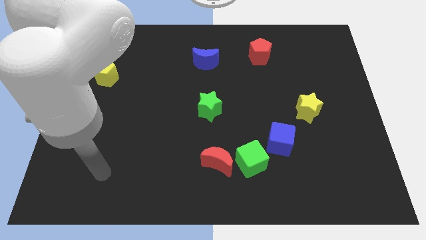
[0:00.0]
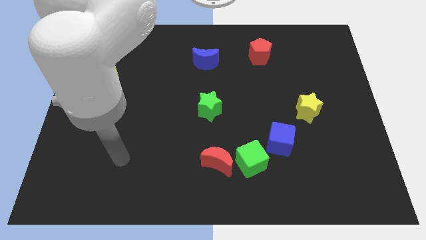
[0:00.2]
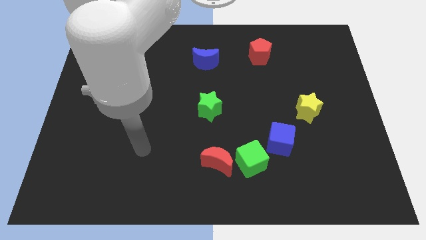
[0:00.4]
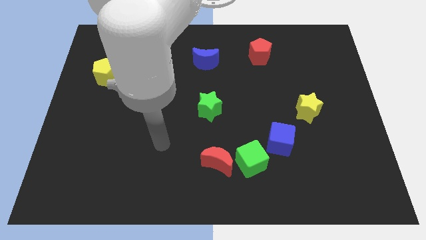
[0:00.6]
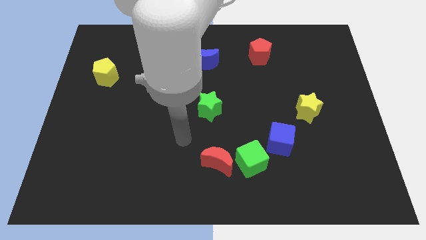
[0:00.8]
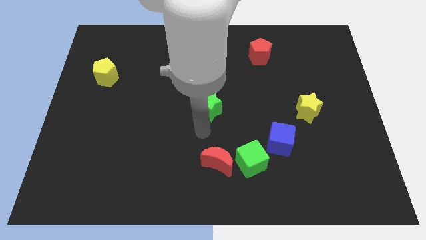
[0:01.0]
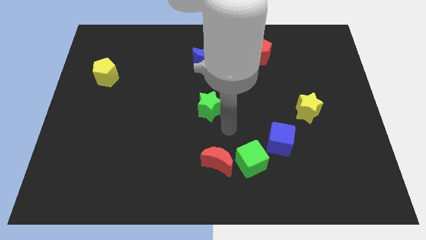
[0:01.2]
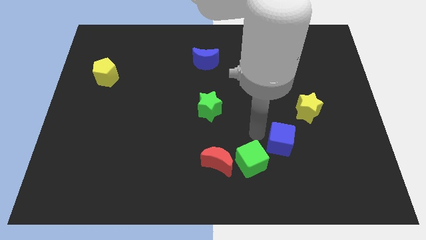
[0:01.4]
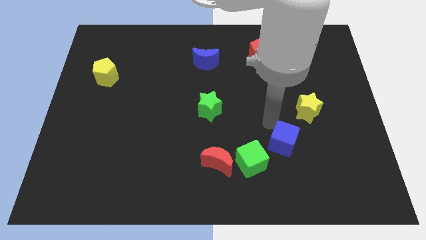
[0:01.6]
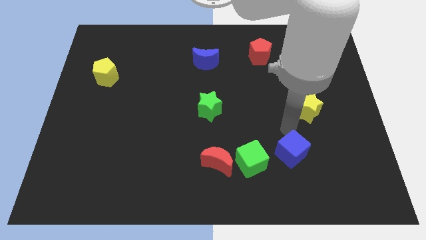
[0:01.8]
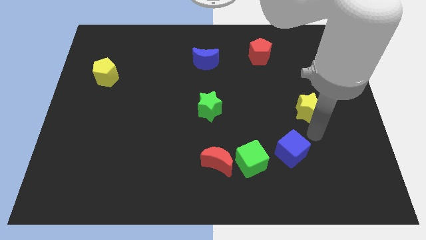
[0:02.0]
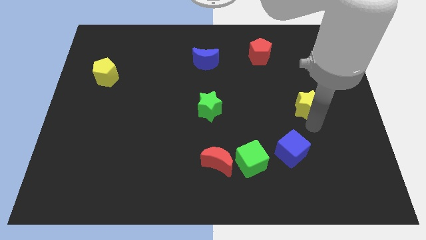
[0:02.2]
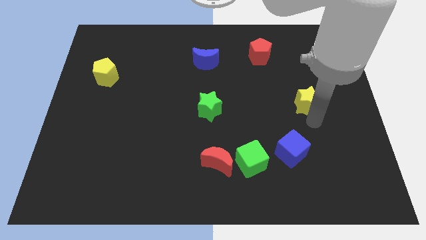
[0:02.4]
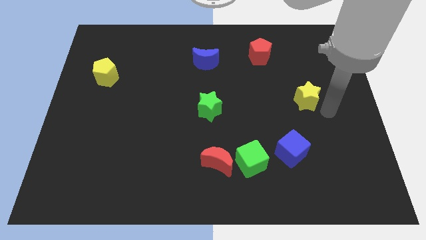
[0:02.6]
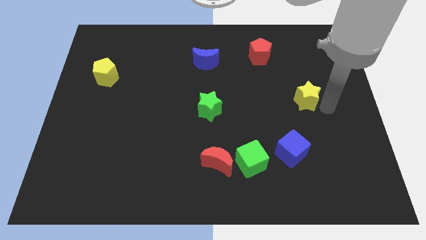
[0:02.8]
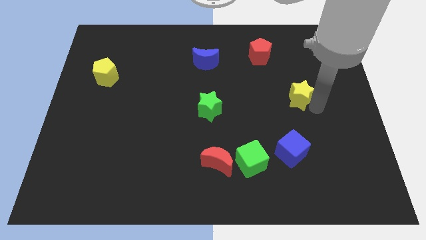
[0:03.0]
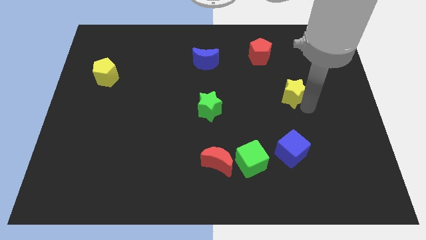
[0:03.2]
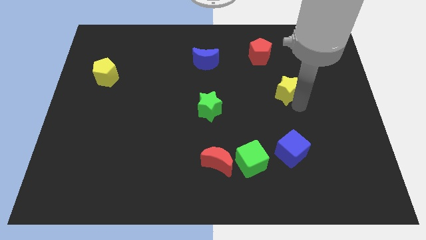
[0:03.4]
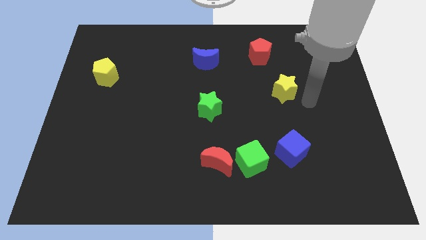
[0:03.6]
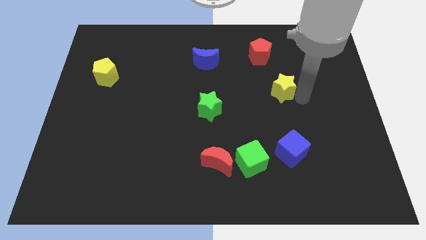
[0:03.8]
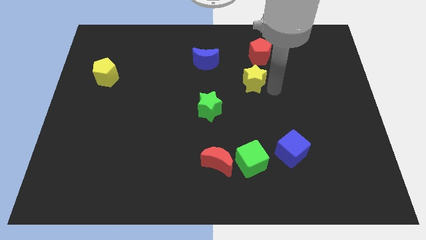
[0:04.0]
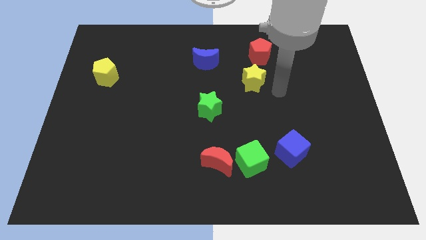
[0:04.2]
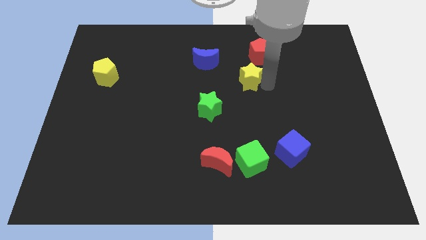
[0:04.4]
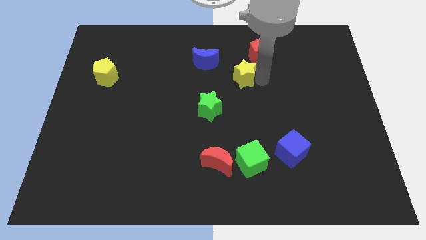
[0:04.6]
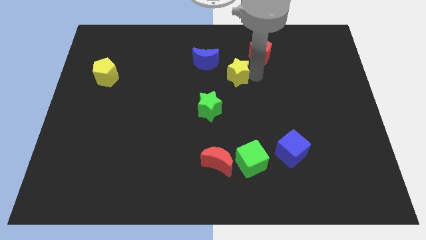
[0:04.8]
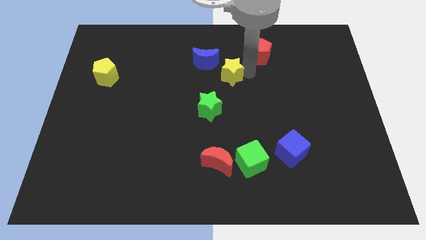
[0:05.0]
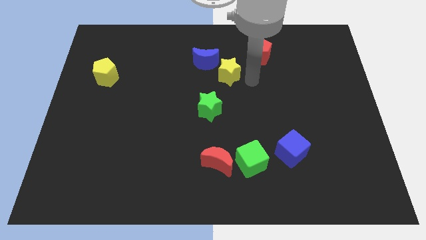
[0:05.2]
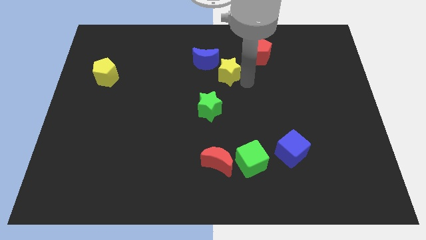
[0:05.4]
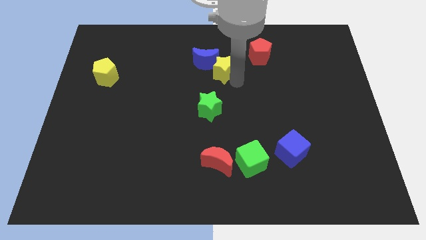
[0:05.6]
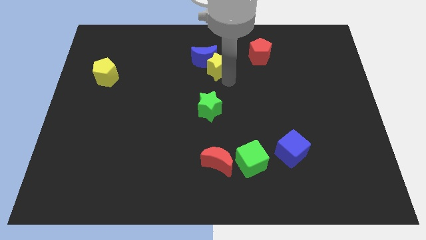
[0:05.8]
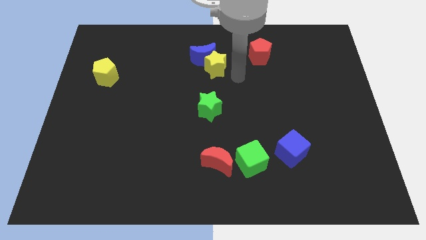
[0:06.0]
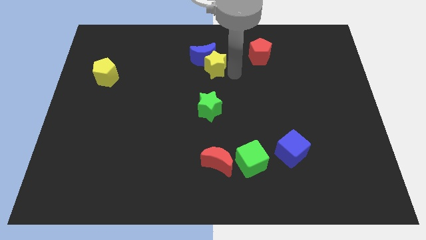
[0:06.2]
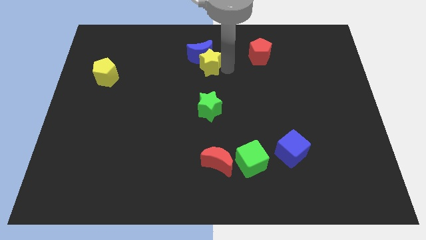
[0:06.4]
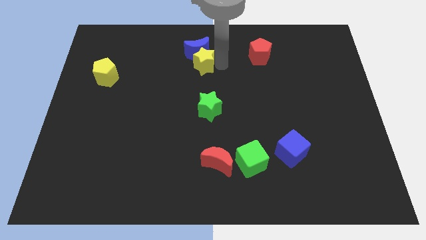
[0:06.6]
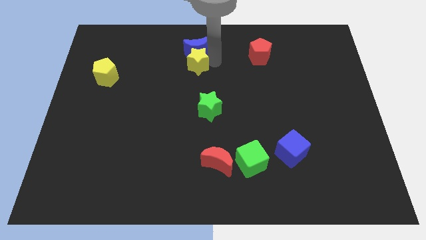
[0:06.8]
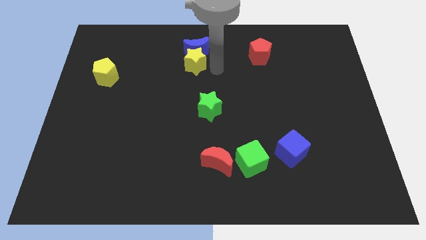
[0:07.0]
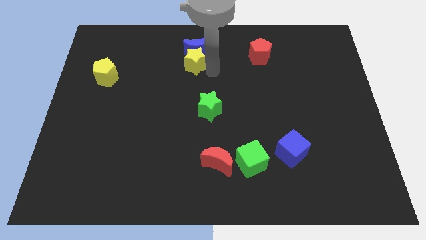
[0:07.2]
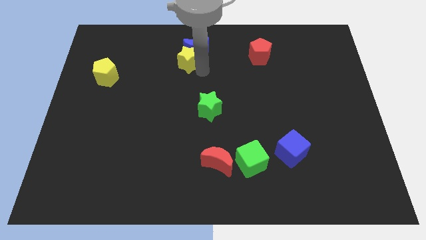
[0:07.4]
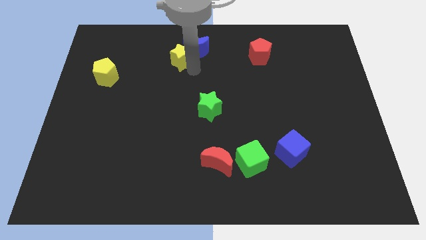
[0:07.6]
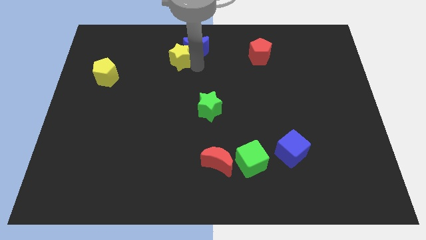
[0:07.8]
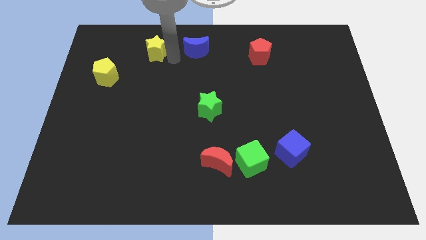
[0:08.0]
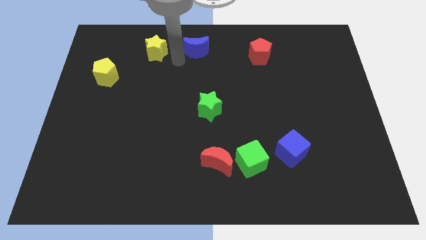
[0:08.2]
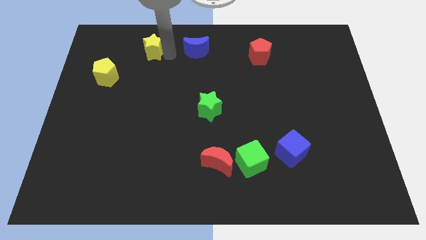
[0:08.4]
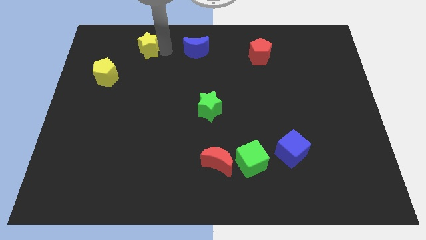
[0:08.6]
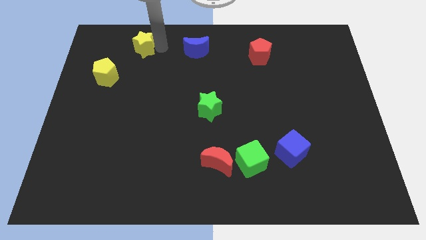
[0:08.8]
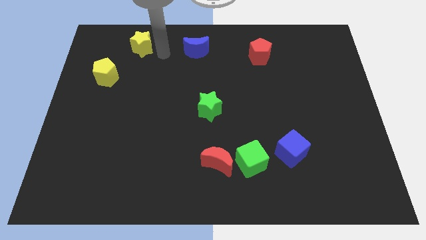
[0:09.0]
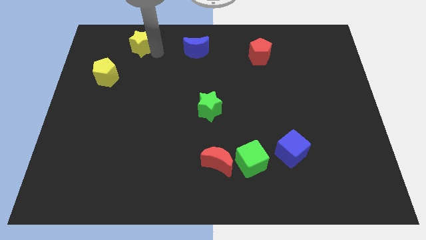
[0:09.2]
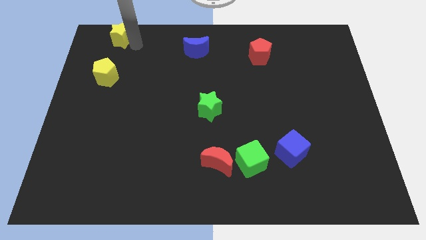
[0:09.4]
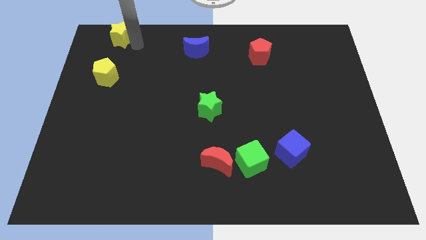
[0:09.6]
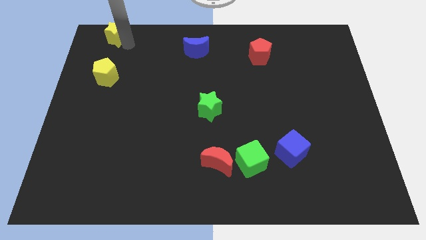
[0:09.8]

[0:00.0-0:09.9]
move the yellow star to the top left

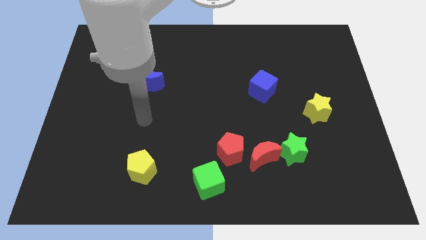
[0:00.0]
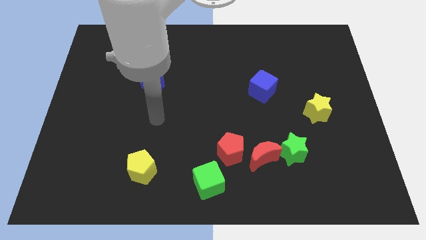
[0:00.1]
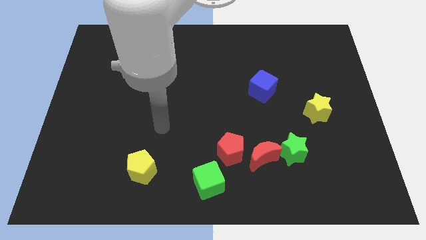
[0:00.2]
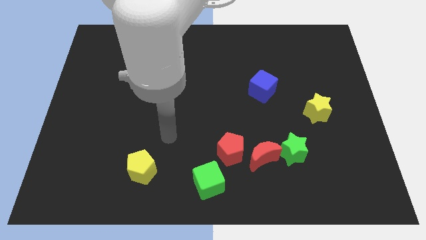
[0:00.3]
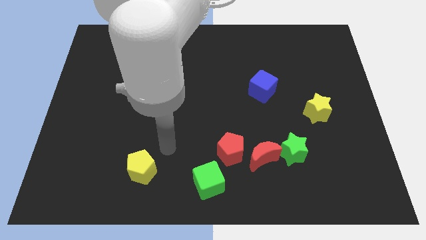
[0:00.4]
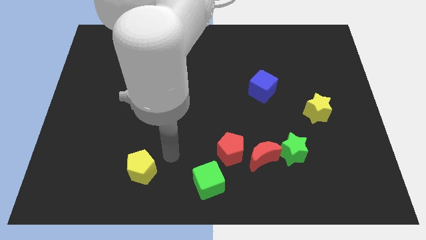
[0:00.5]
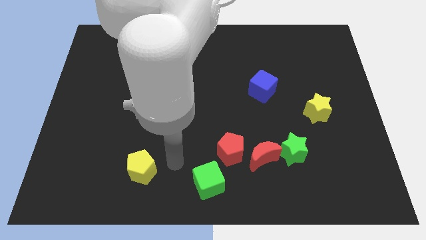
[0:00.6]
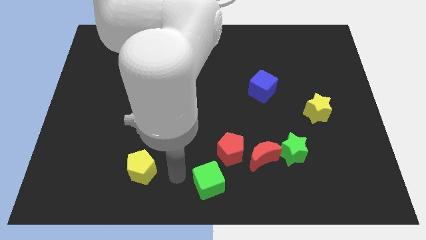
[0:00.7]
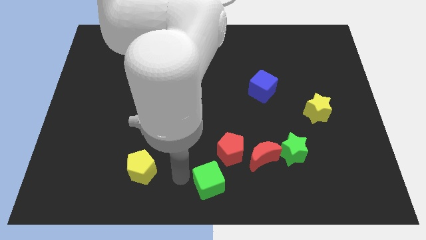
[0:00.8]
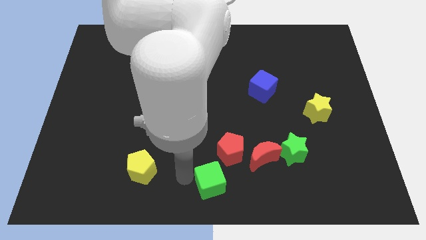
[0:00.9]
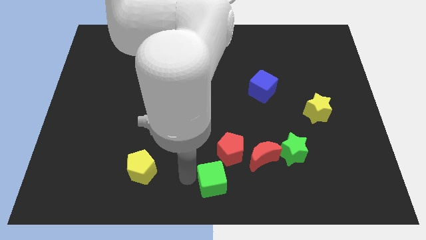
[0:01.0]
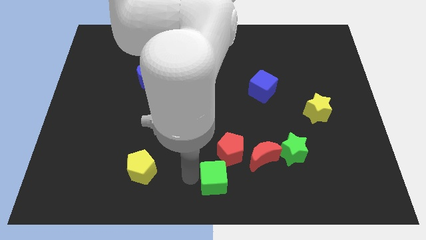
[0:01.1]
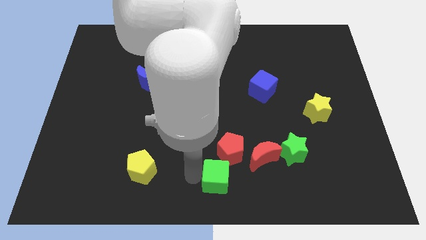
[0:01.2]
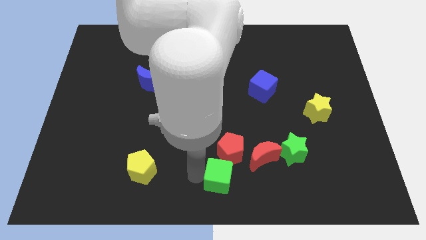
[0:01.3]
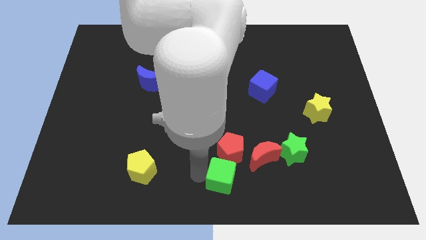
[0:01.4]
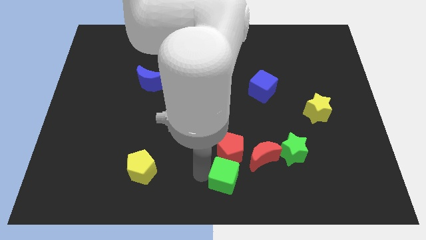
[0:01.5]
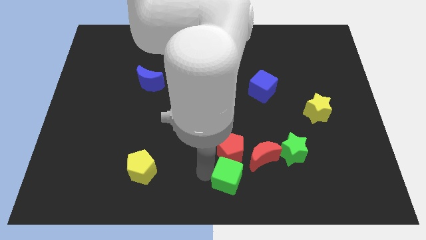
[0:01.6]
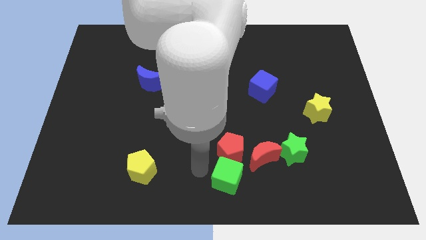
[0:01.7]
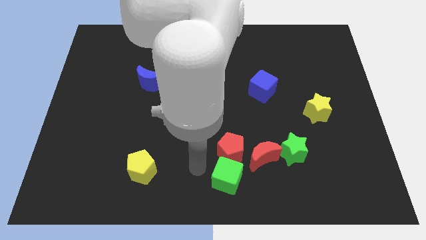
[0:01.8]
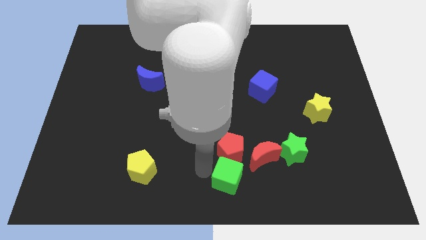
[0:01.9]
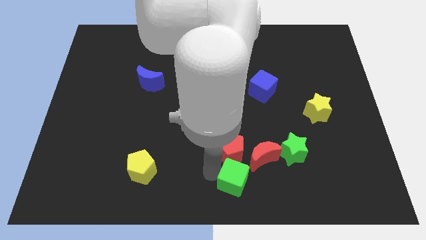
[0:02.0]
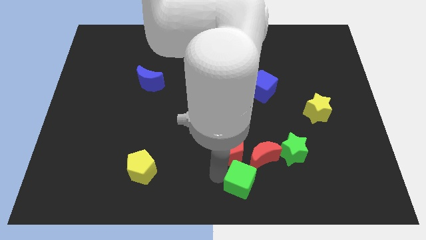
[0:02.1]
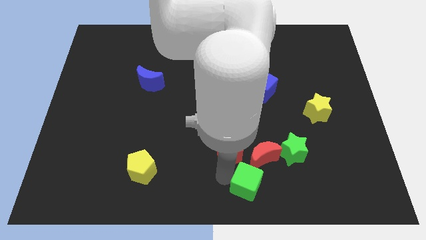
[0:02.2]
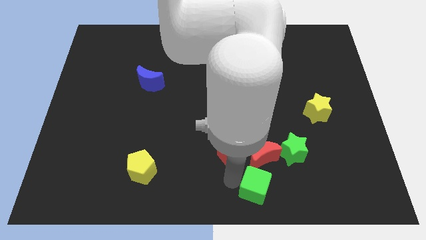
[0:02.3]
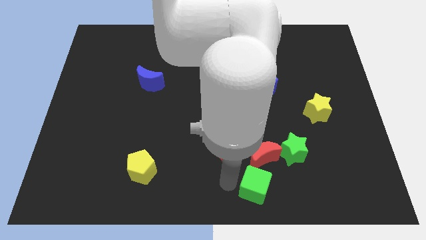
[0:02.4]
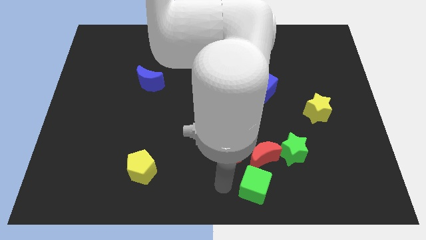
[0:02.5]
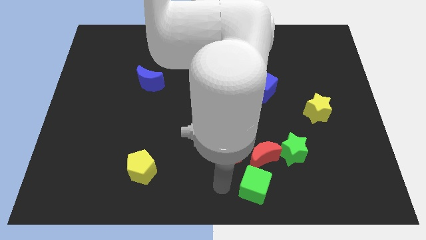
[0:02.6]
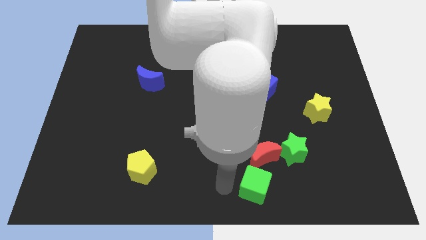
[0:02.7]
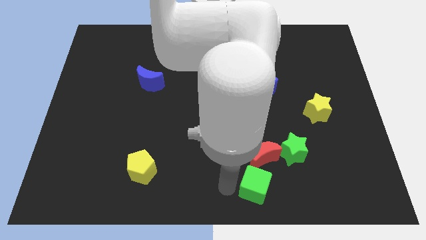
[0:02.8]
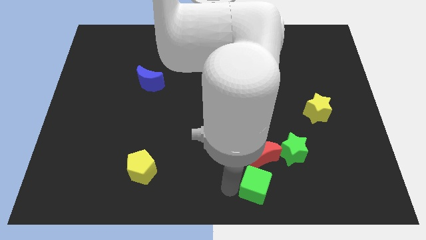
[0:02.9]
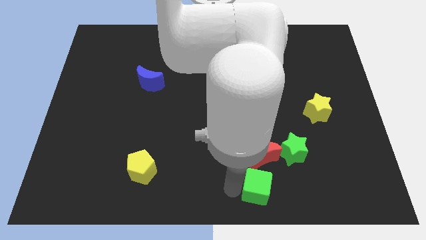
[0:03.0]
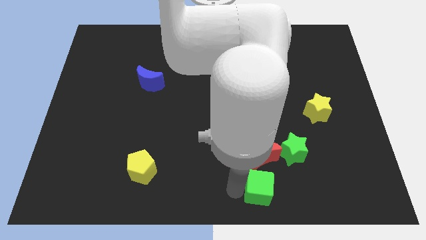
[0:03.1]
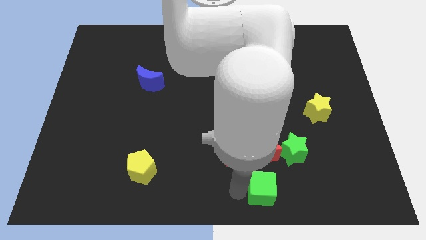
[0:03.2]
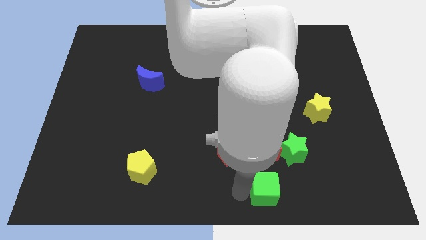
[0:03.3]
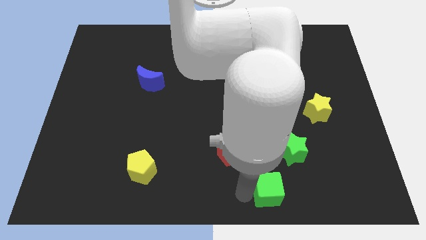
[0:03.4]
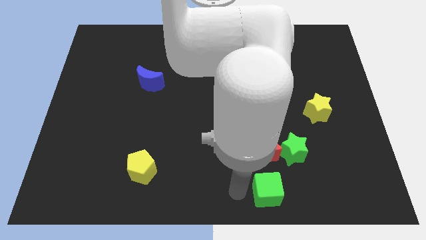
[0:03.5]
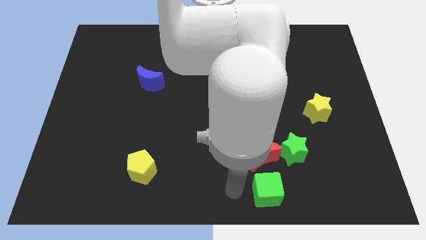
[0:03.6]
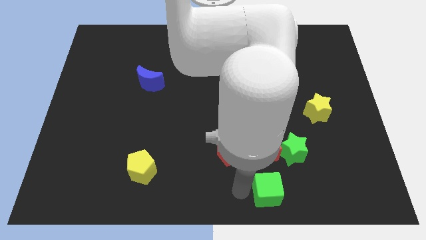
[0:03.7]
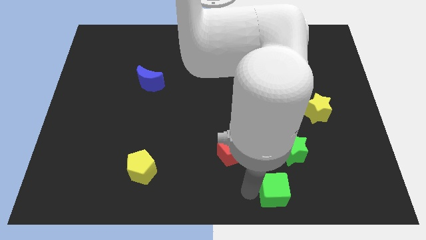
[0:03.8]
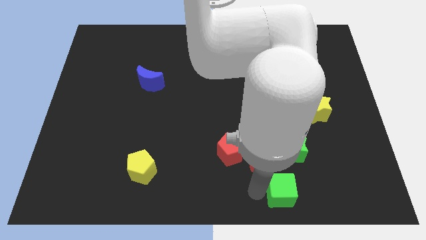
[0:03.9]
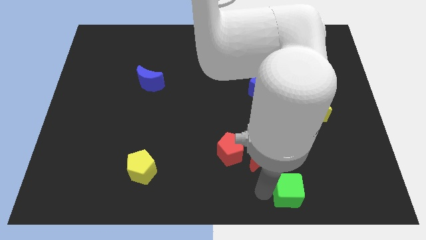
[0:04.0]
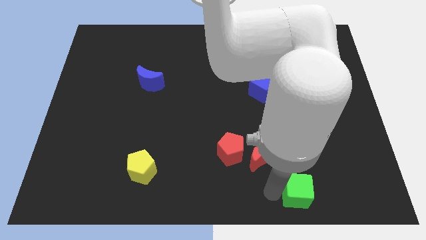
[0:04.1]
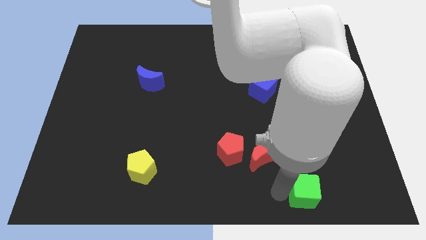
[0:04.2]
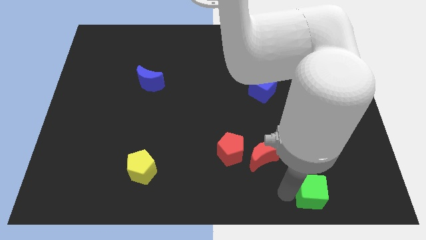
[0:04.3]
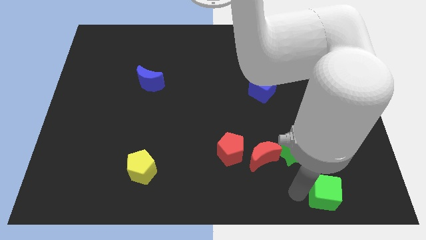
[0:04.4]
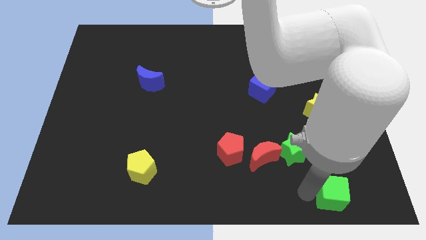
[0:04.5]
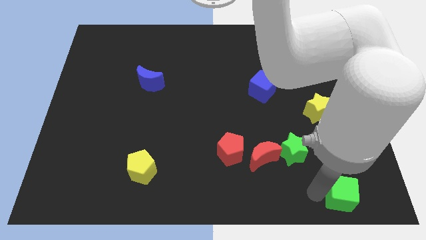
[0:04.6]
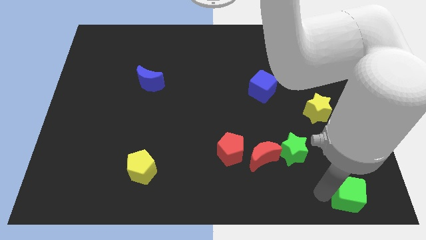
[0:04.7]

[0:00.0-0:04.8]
put the green cube to the lower right corner
